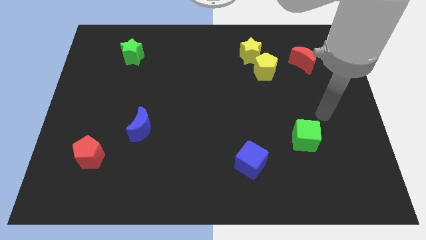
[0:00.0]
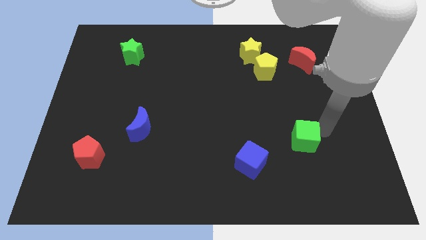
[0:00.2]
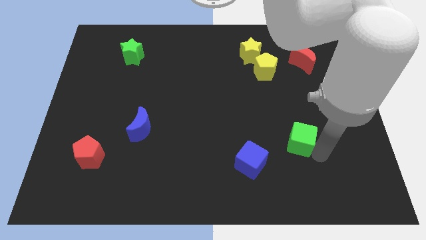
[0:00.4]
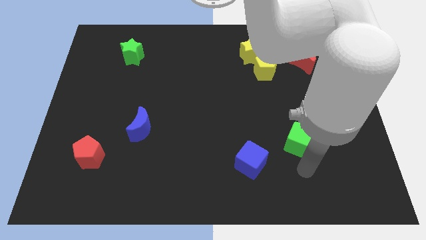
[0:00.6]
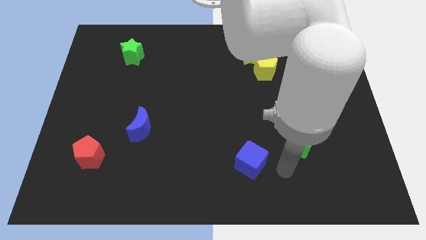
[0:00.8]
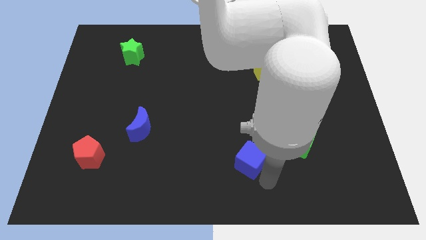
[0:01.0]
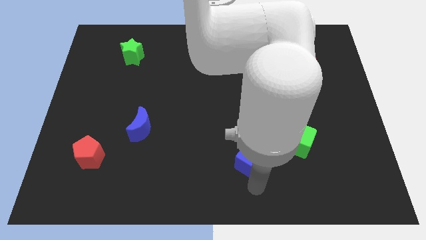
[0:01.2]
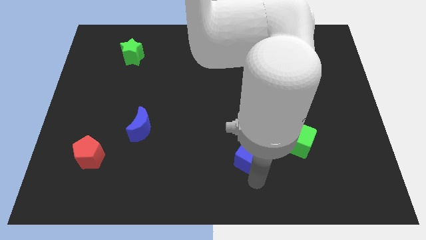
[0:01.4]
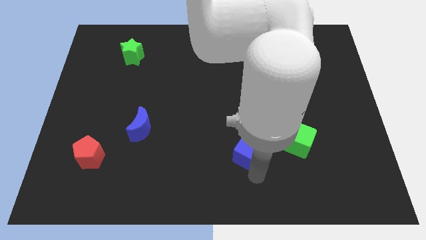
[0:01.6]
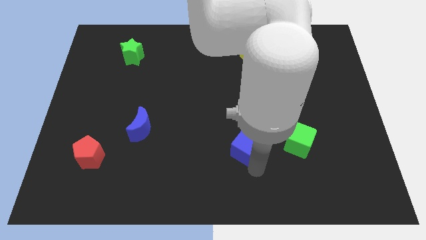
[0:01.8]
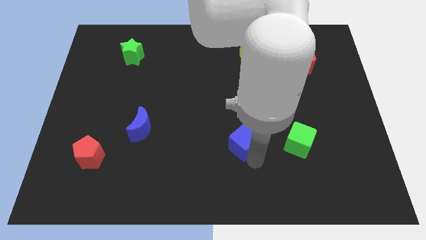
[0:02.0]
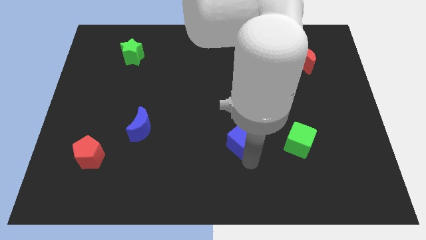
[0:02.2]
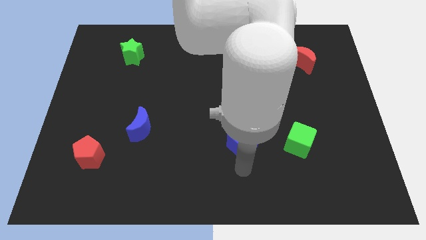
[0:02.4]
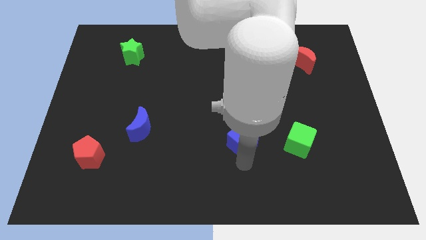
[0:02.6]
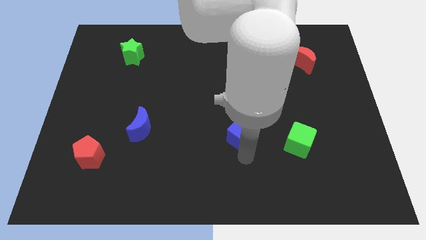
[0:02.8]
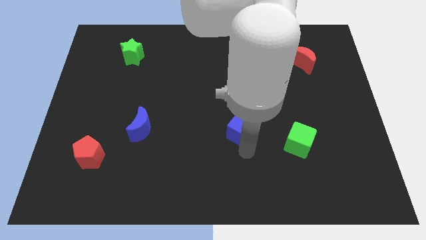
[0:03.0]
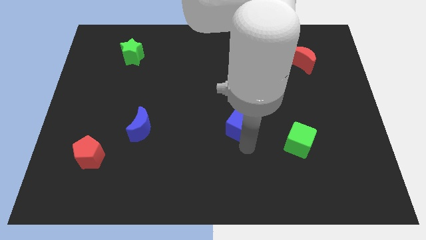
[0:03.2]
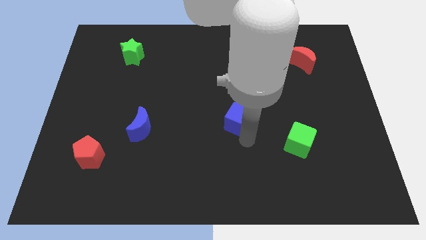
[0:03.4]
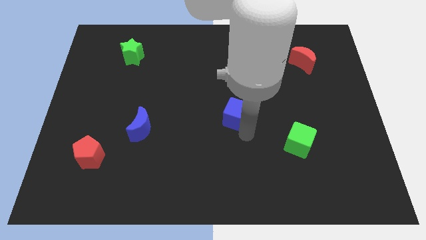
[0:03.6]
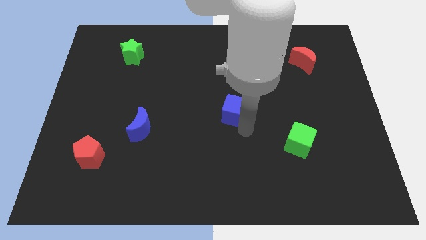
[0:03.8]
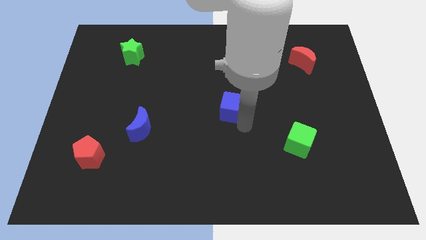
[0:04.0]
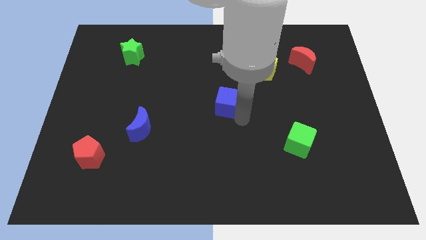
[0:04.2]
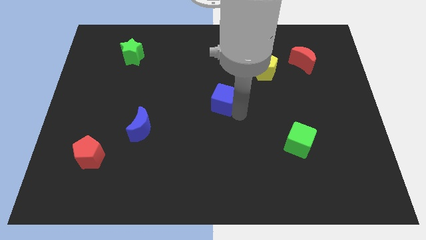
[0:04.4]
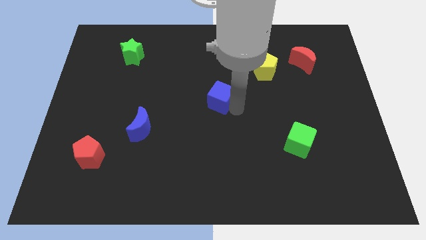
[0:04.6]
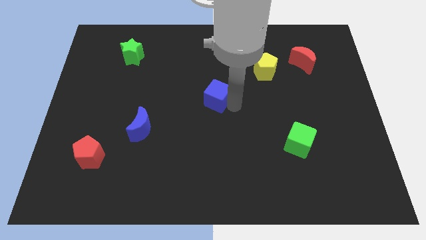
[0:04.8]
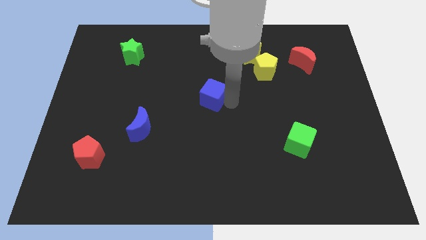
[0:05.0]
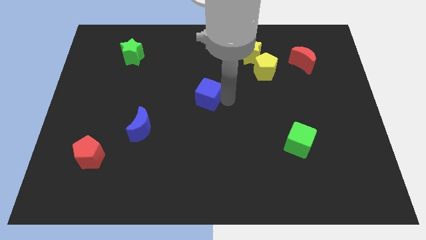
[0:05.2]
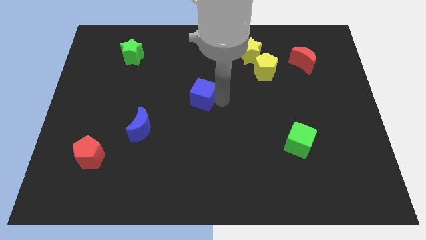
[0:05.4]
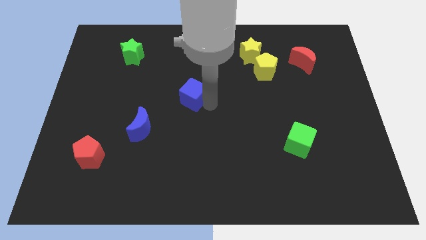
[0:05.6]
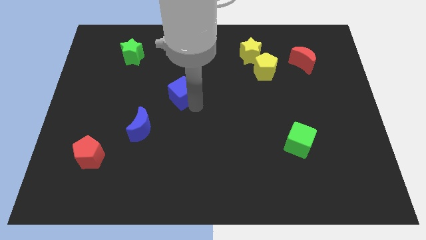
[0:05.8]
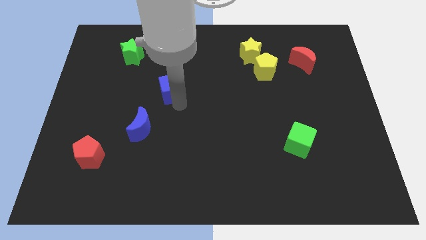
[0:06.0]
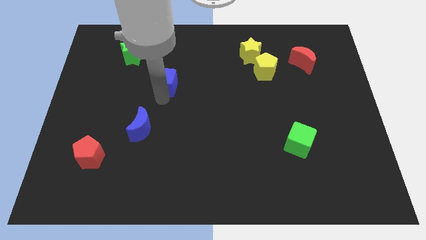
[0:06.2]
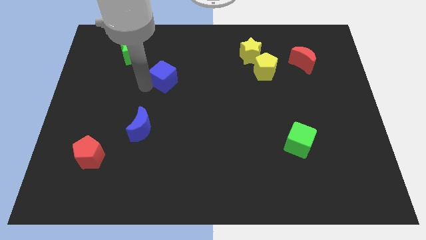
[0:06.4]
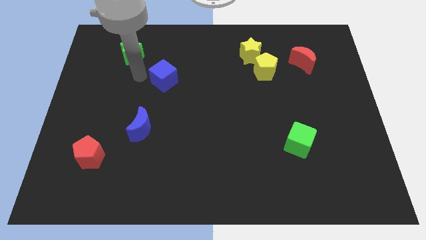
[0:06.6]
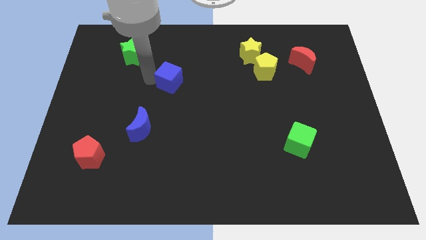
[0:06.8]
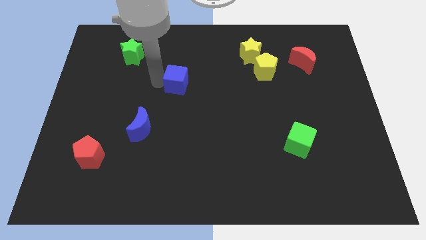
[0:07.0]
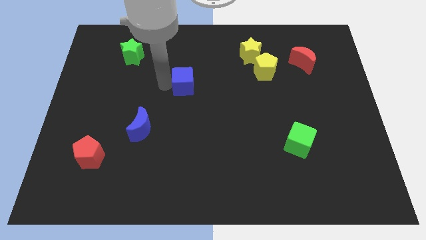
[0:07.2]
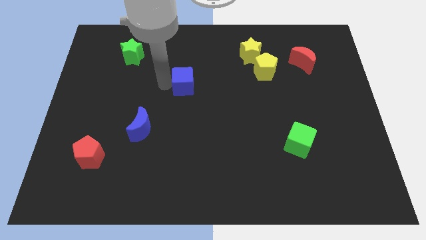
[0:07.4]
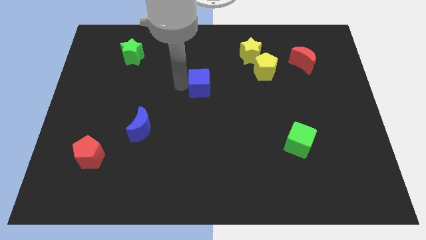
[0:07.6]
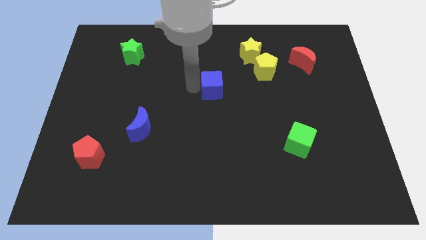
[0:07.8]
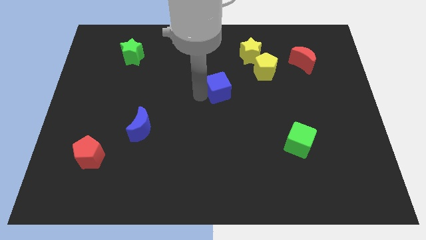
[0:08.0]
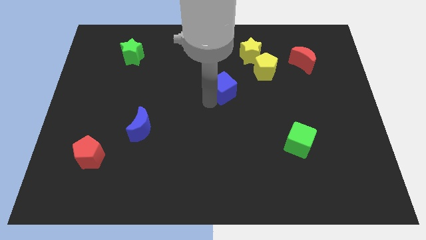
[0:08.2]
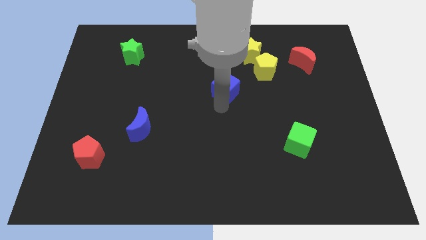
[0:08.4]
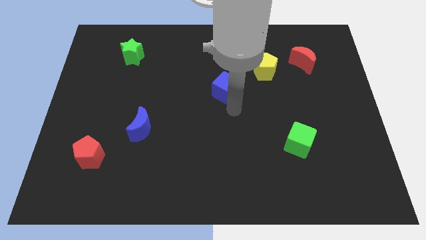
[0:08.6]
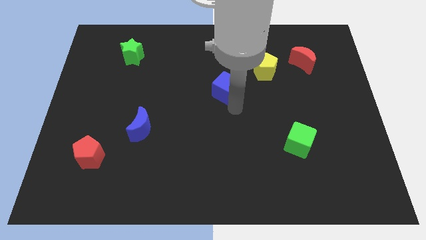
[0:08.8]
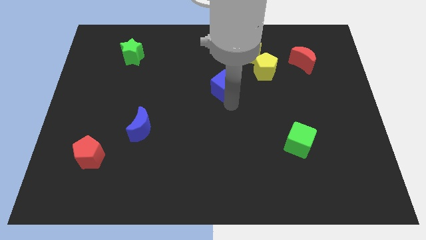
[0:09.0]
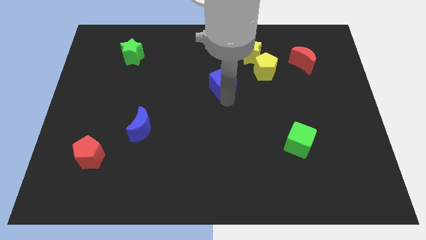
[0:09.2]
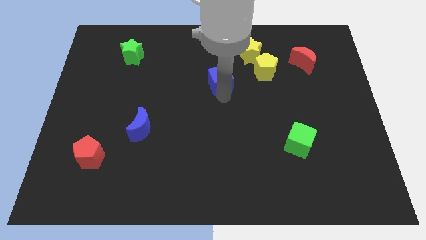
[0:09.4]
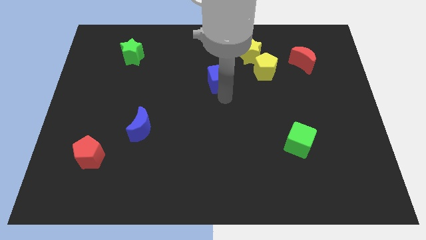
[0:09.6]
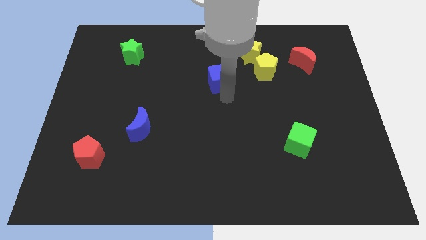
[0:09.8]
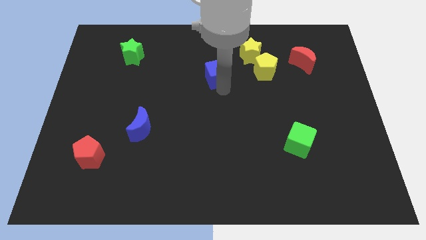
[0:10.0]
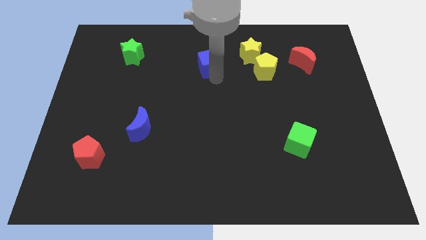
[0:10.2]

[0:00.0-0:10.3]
put the blue cube left of the yellow star

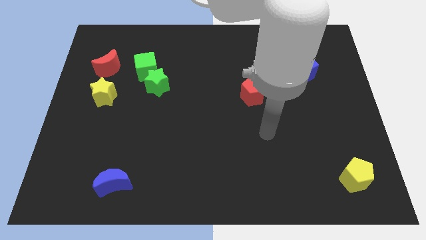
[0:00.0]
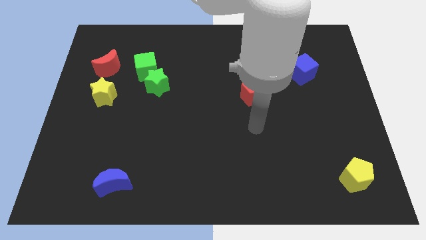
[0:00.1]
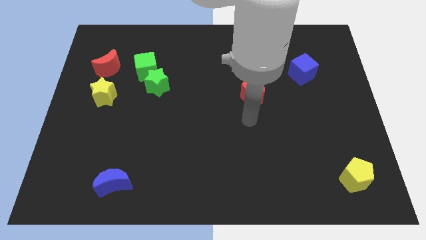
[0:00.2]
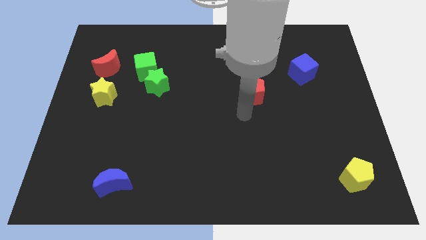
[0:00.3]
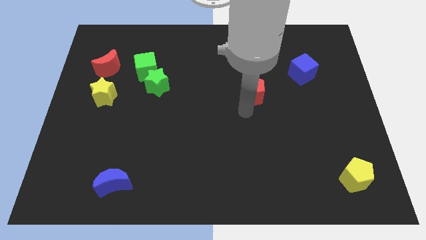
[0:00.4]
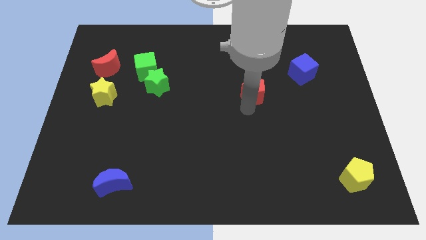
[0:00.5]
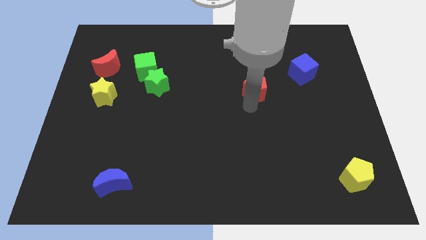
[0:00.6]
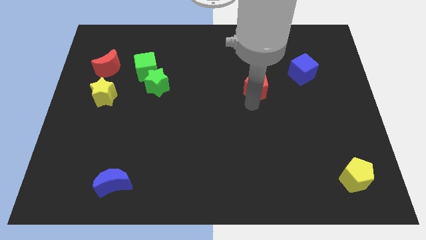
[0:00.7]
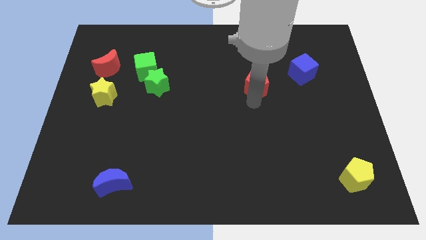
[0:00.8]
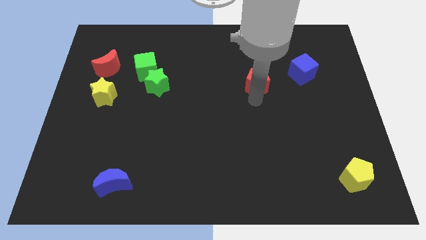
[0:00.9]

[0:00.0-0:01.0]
move the red pentagon left of the blue cube

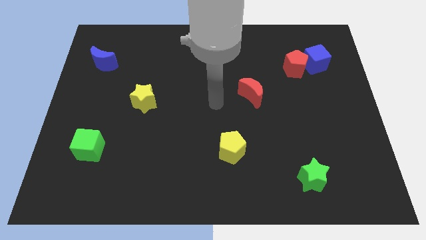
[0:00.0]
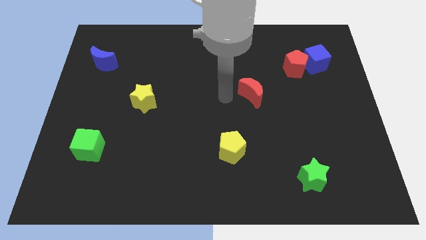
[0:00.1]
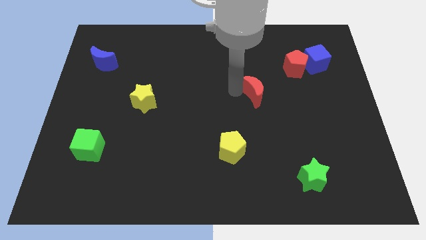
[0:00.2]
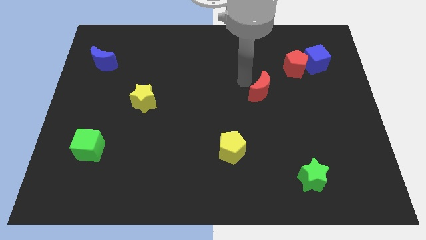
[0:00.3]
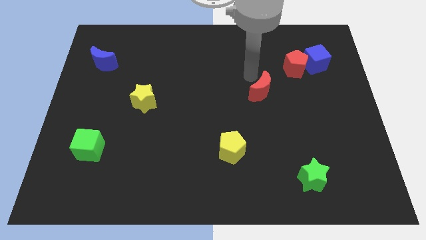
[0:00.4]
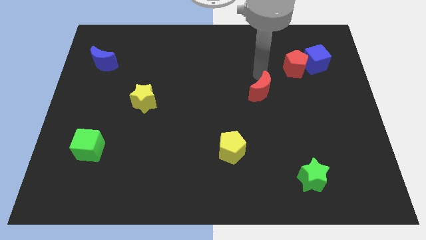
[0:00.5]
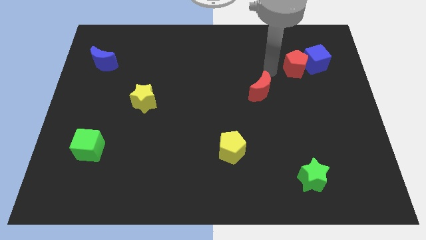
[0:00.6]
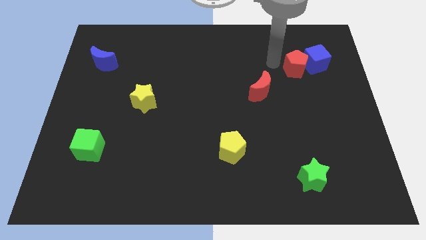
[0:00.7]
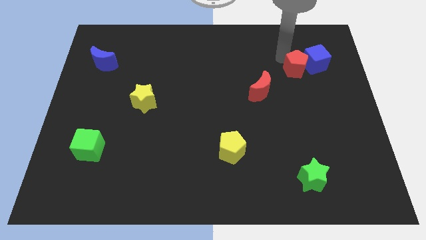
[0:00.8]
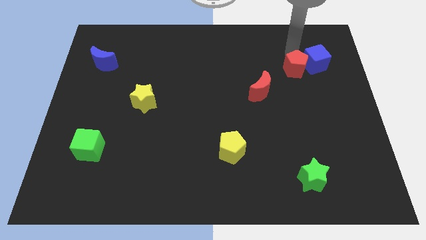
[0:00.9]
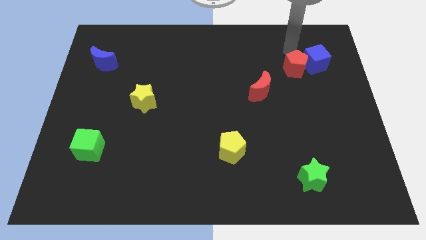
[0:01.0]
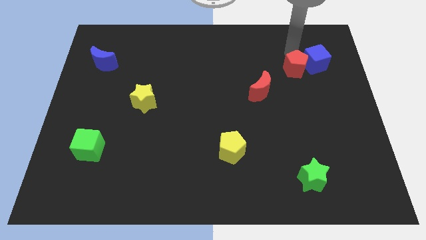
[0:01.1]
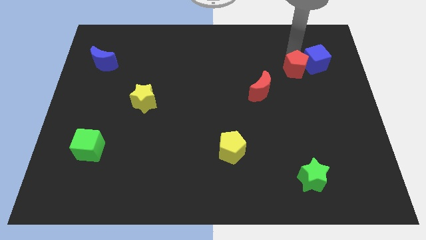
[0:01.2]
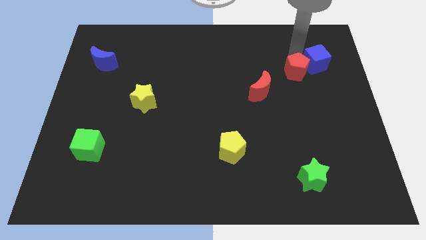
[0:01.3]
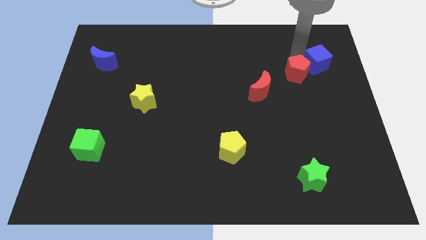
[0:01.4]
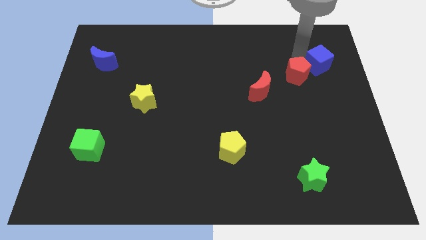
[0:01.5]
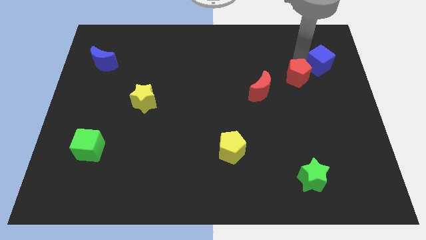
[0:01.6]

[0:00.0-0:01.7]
push the red pentagon to the right of the red moon

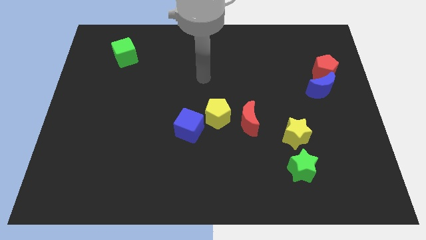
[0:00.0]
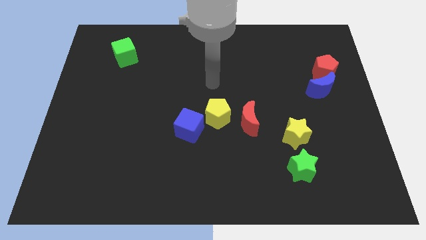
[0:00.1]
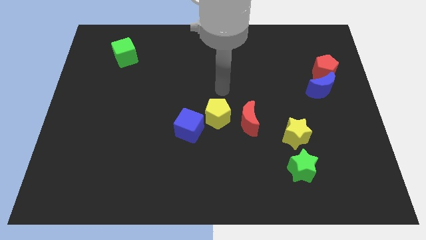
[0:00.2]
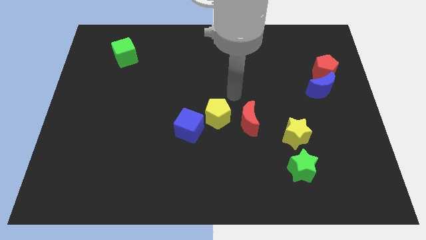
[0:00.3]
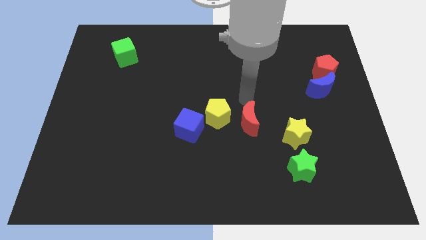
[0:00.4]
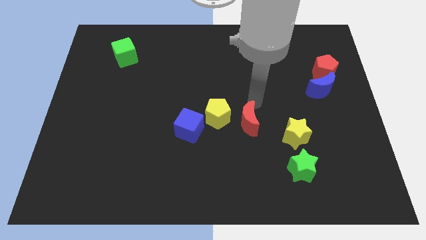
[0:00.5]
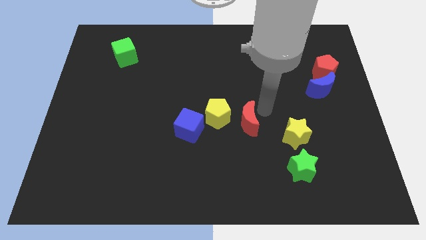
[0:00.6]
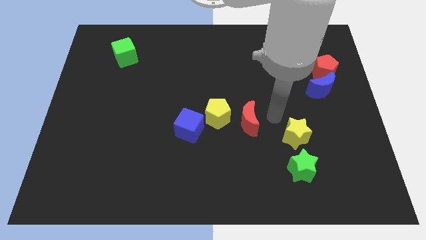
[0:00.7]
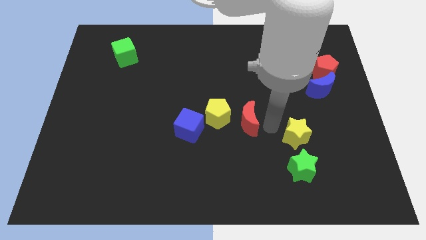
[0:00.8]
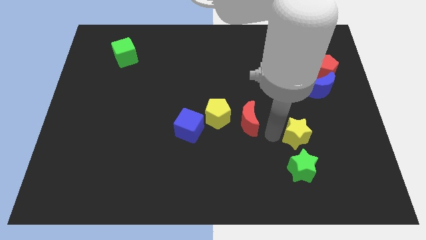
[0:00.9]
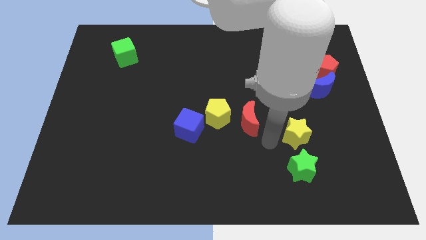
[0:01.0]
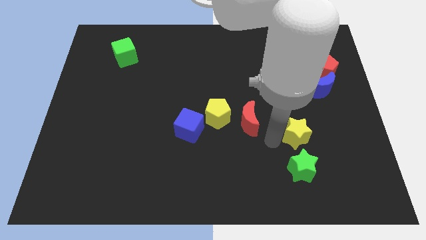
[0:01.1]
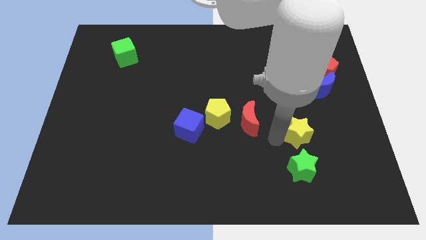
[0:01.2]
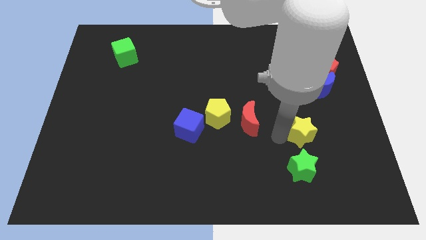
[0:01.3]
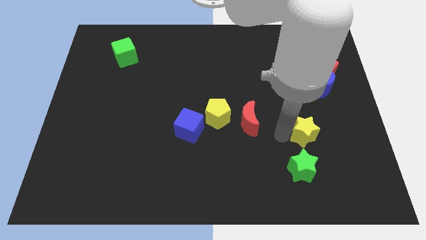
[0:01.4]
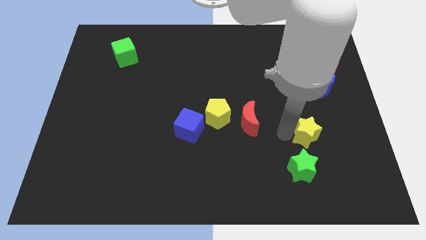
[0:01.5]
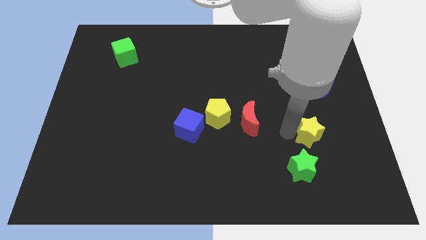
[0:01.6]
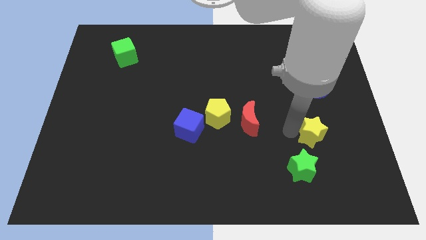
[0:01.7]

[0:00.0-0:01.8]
put the yellow star below the blue moon
